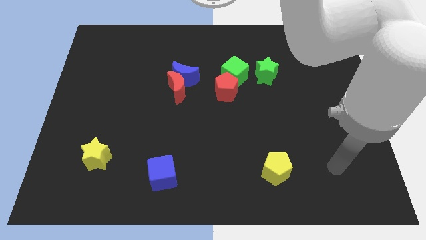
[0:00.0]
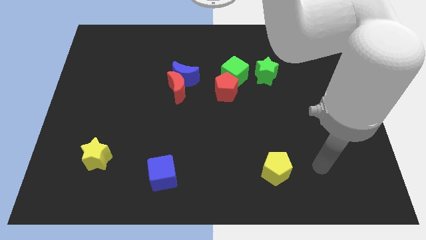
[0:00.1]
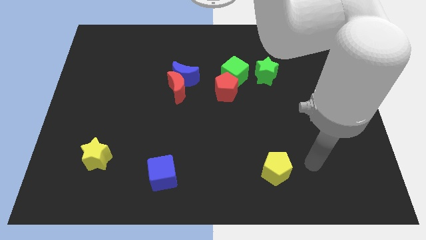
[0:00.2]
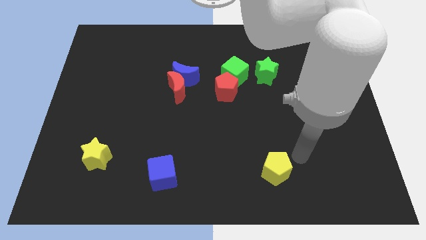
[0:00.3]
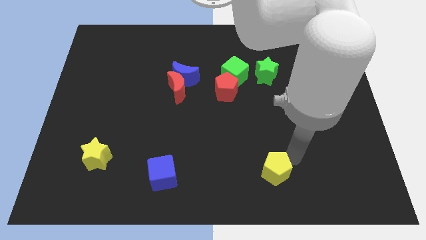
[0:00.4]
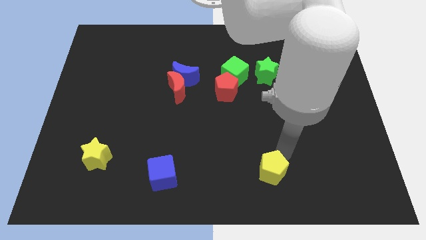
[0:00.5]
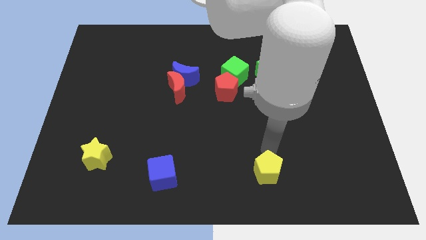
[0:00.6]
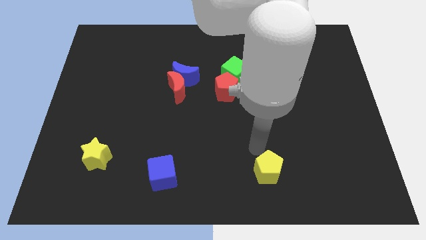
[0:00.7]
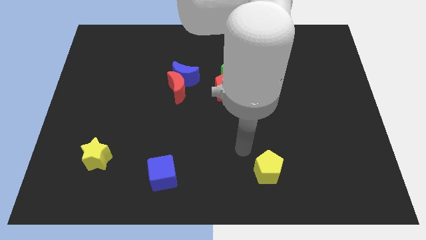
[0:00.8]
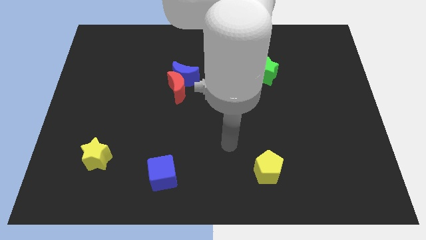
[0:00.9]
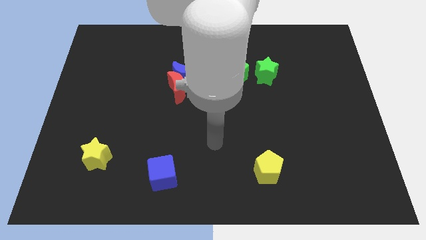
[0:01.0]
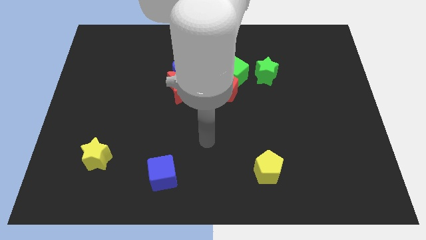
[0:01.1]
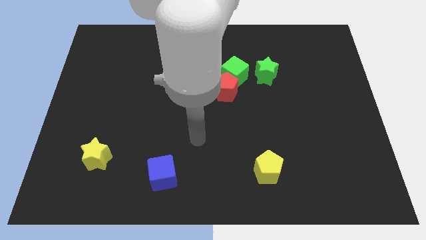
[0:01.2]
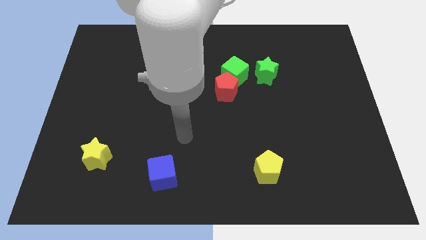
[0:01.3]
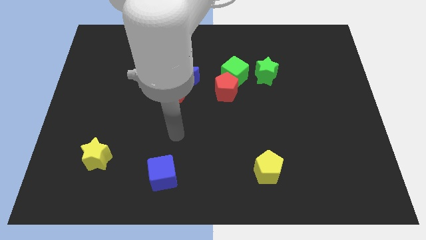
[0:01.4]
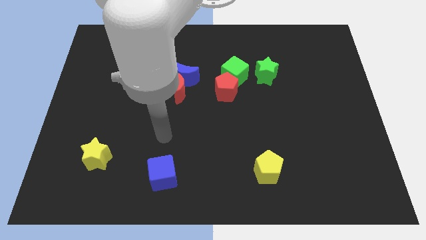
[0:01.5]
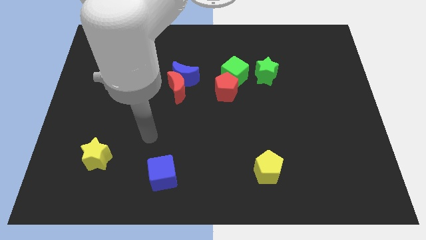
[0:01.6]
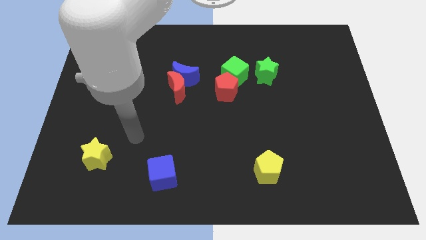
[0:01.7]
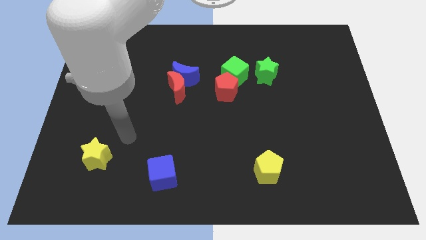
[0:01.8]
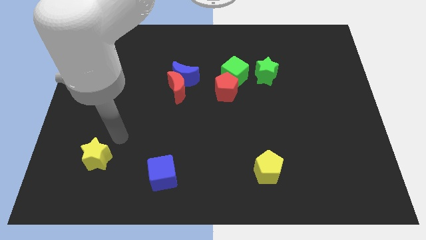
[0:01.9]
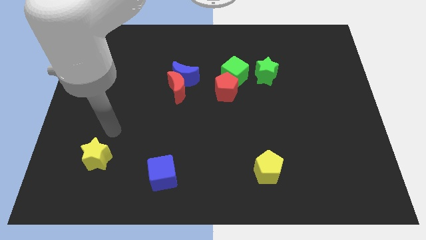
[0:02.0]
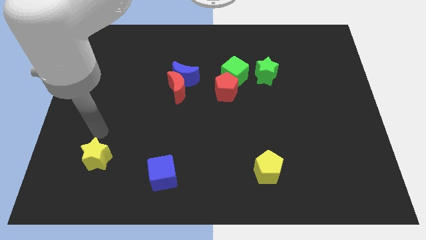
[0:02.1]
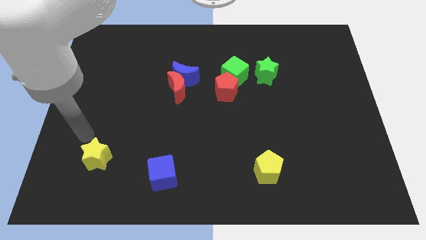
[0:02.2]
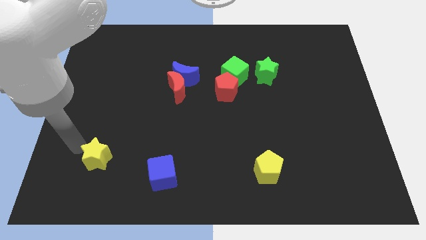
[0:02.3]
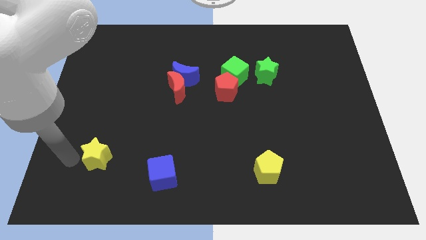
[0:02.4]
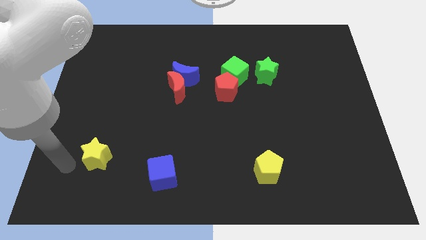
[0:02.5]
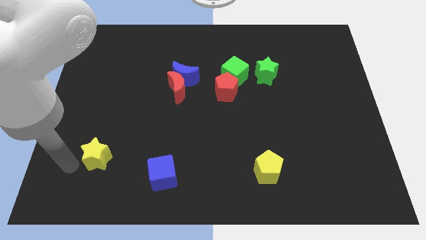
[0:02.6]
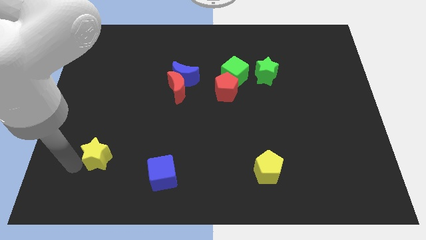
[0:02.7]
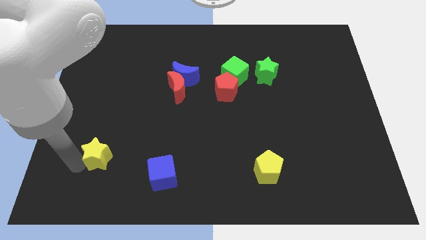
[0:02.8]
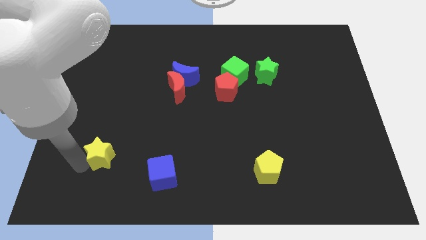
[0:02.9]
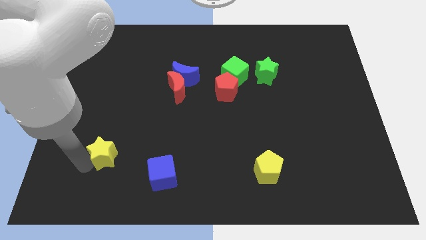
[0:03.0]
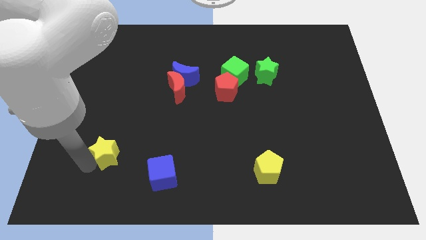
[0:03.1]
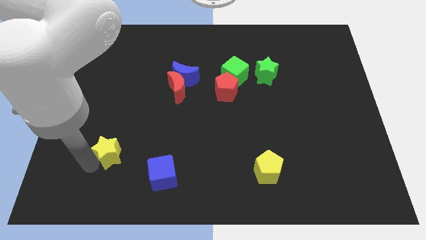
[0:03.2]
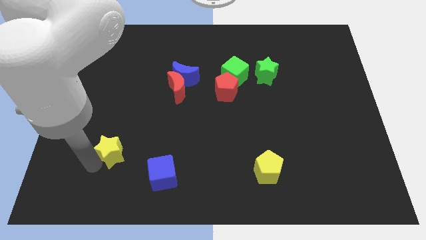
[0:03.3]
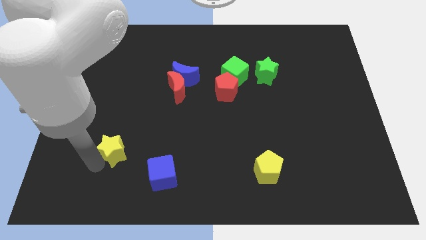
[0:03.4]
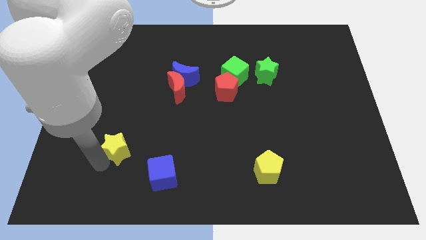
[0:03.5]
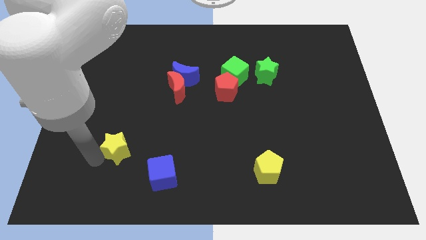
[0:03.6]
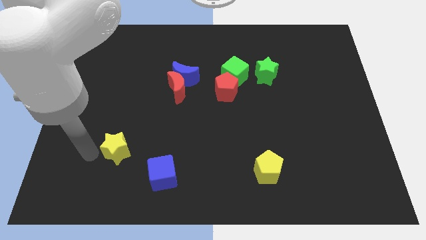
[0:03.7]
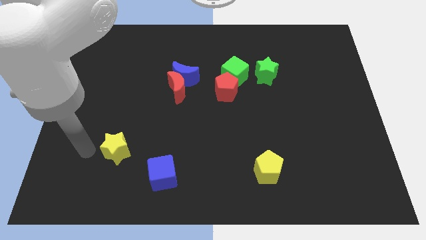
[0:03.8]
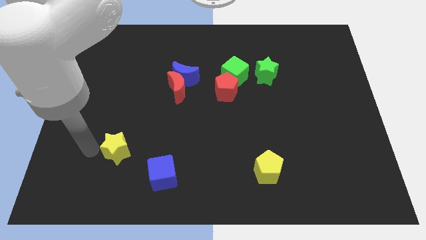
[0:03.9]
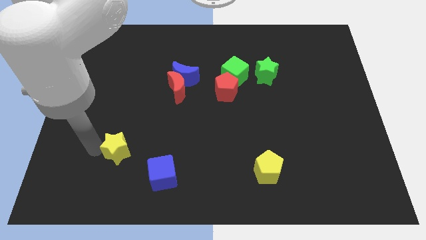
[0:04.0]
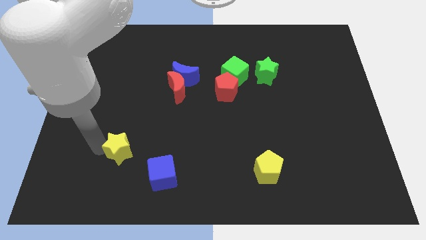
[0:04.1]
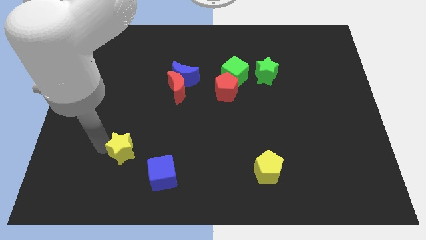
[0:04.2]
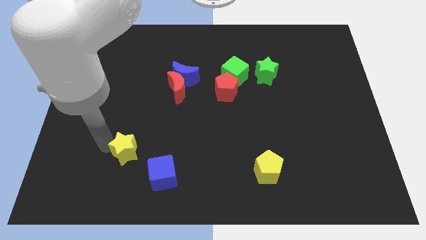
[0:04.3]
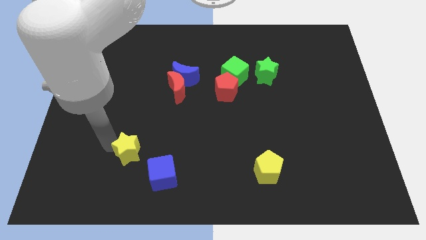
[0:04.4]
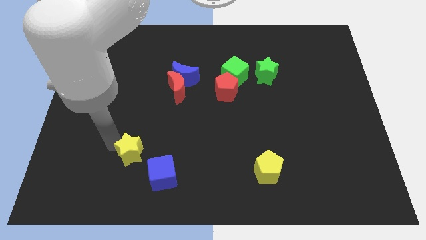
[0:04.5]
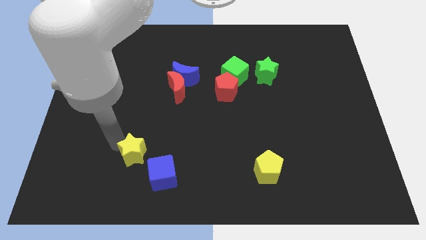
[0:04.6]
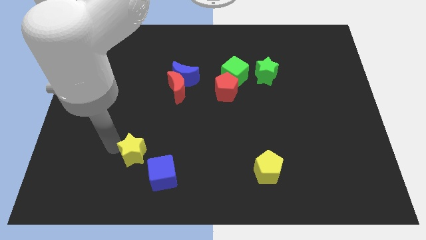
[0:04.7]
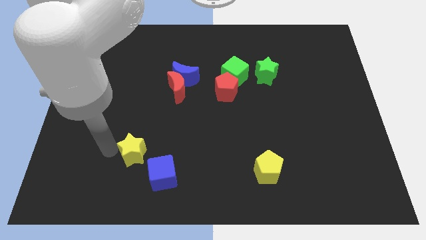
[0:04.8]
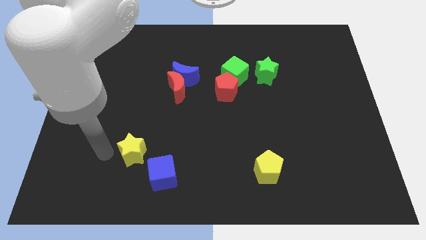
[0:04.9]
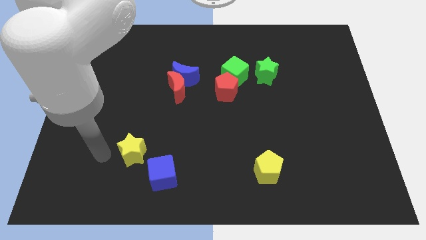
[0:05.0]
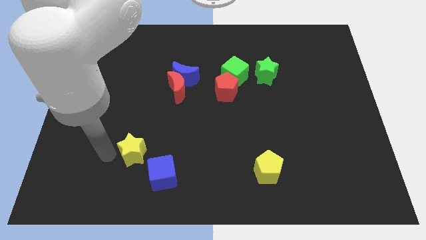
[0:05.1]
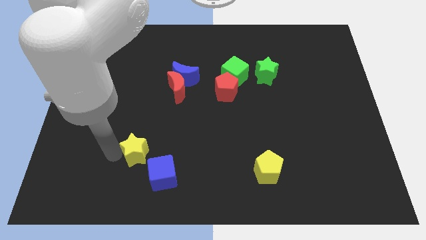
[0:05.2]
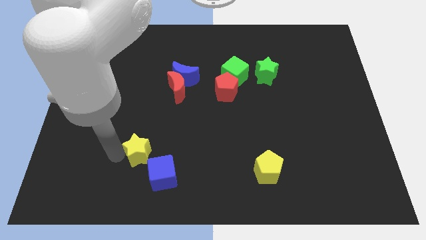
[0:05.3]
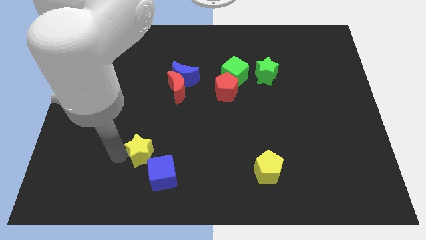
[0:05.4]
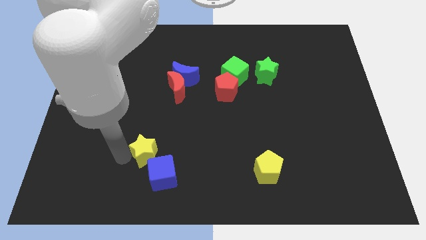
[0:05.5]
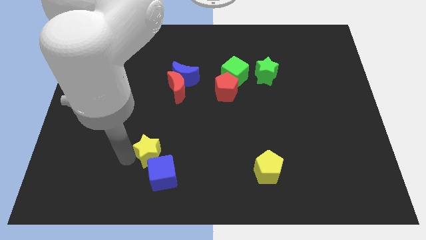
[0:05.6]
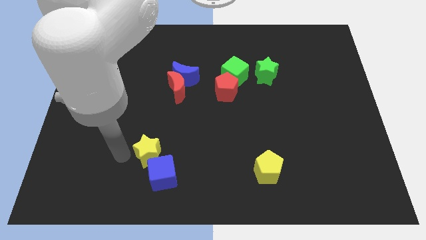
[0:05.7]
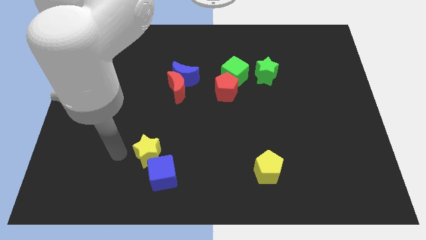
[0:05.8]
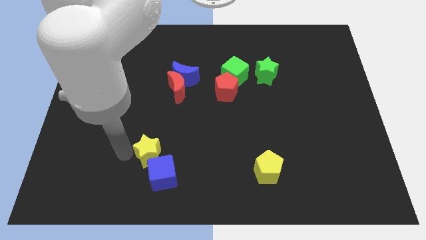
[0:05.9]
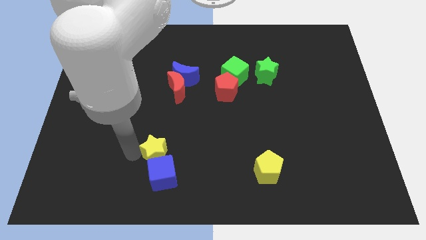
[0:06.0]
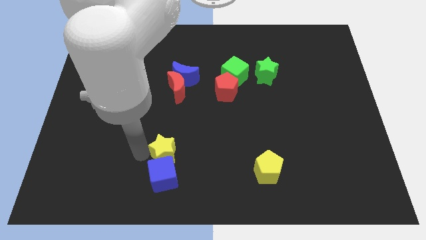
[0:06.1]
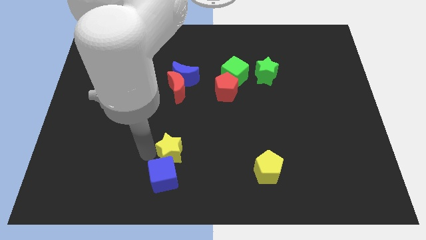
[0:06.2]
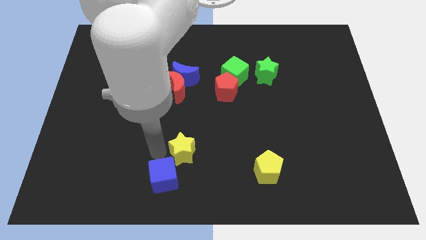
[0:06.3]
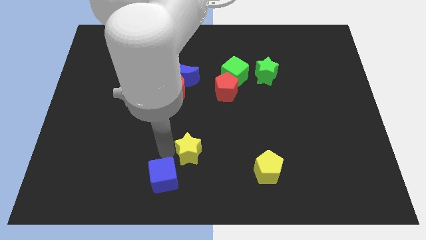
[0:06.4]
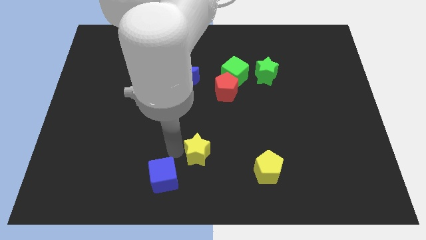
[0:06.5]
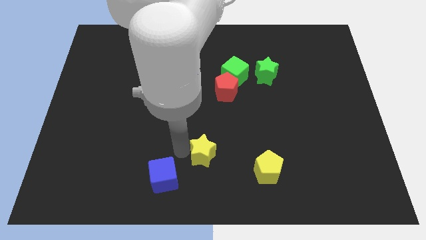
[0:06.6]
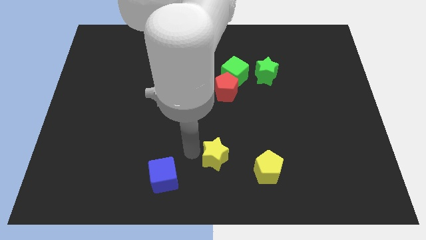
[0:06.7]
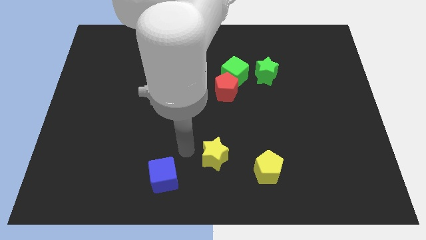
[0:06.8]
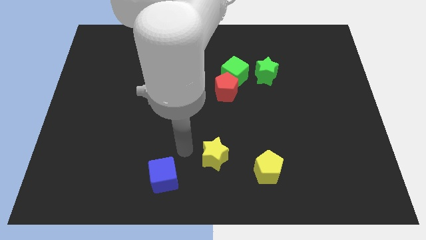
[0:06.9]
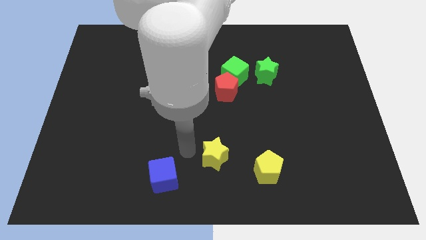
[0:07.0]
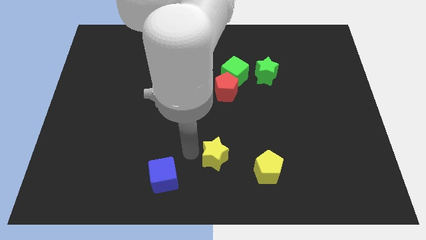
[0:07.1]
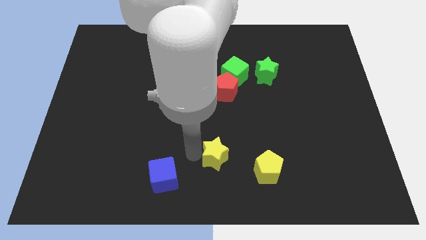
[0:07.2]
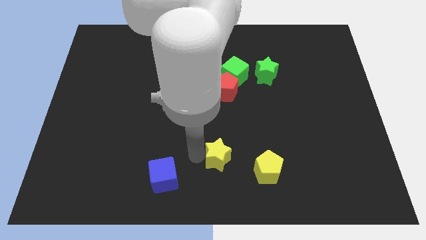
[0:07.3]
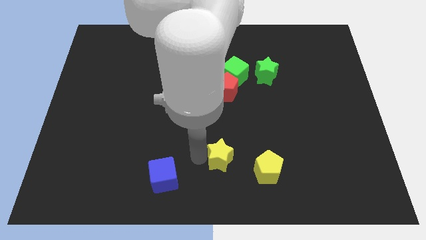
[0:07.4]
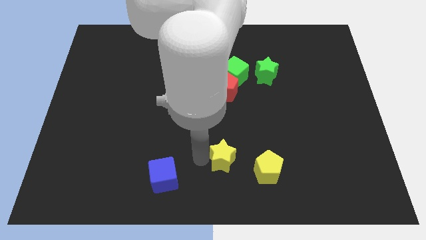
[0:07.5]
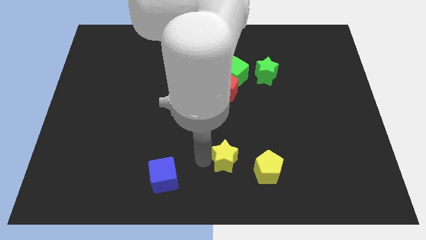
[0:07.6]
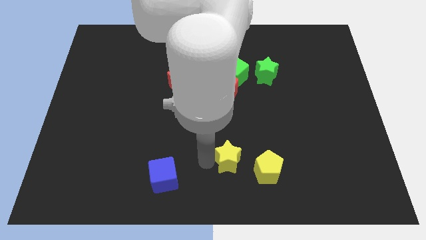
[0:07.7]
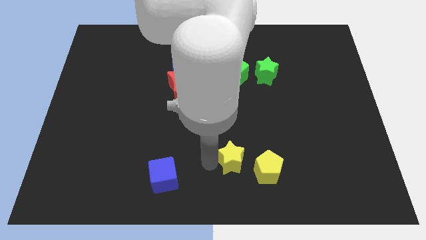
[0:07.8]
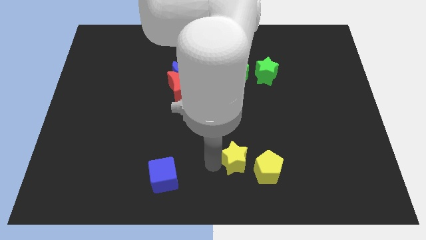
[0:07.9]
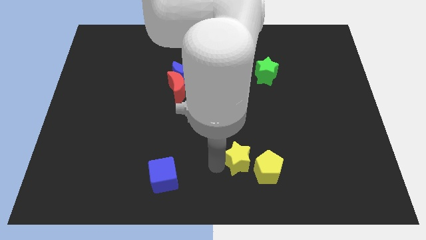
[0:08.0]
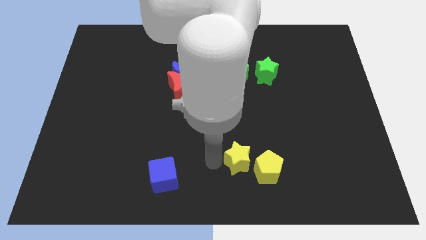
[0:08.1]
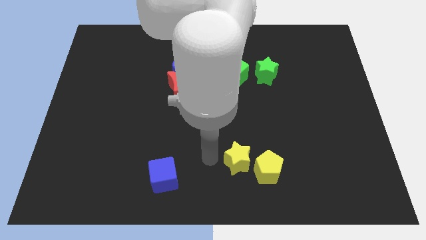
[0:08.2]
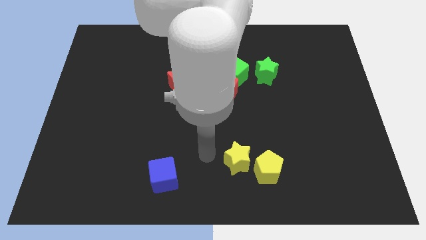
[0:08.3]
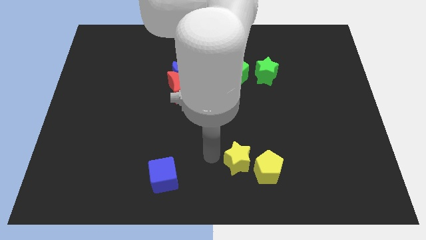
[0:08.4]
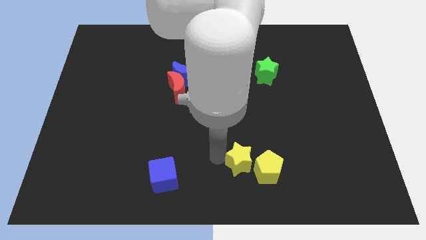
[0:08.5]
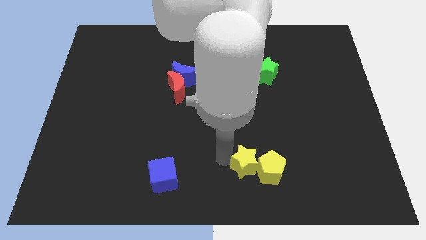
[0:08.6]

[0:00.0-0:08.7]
slide the yellow star towards the yellow pentagon
